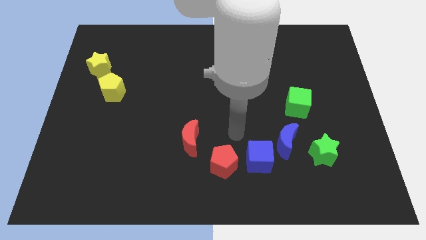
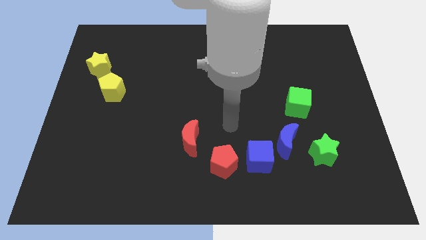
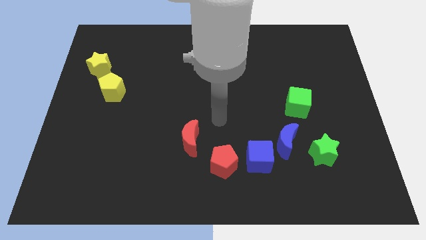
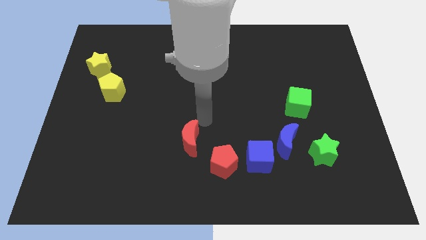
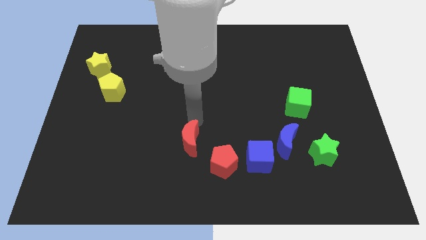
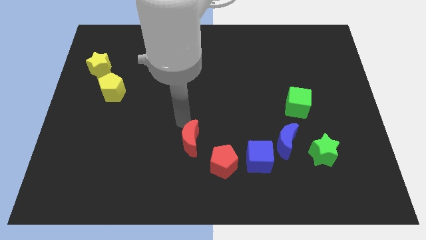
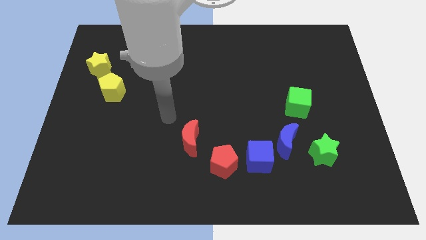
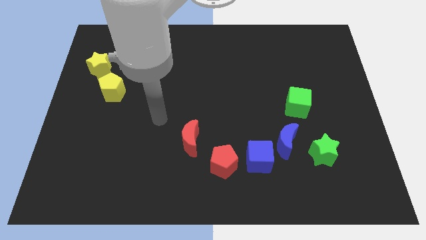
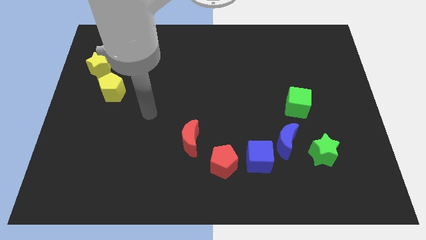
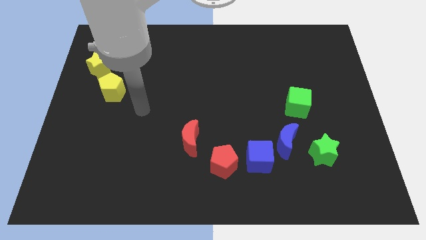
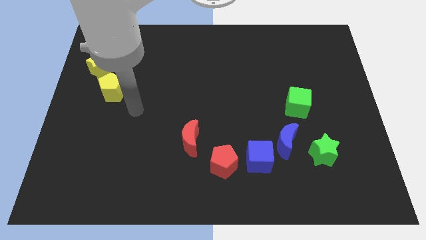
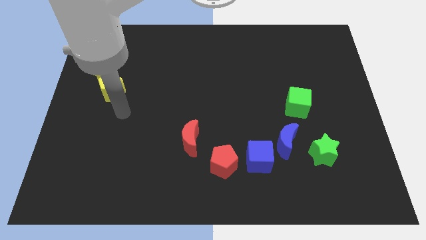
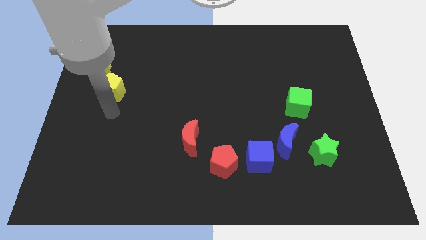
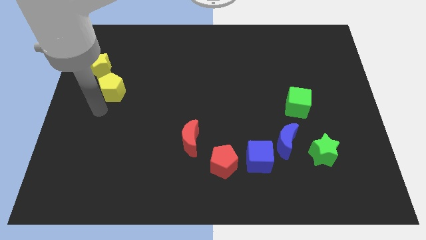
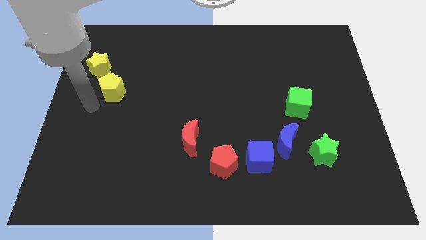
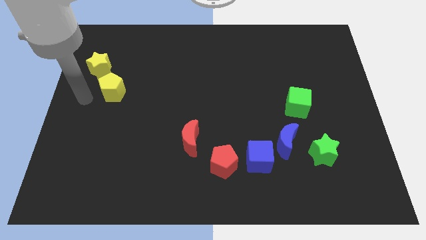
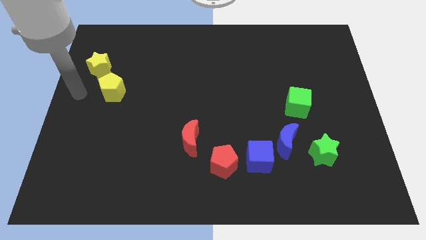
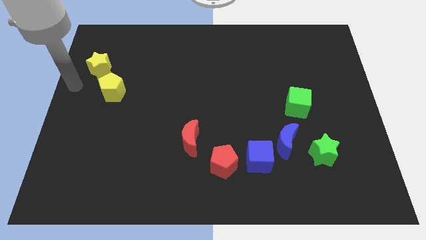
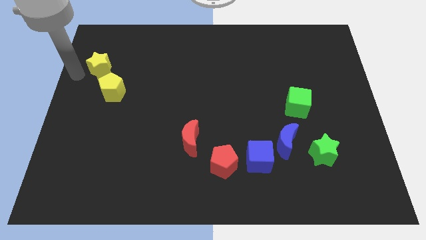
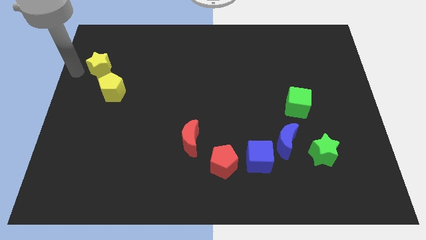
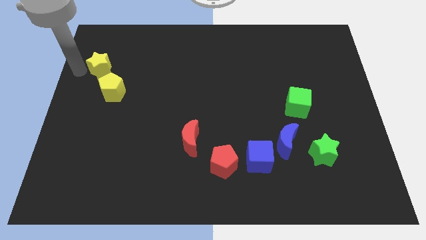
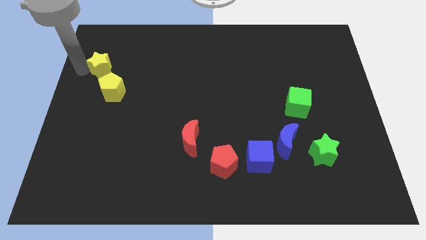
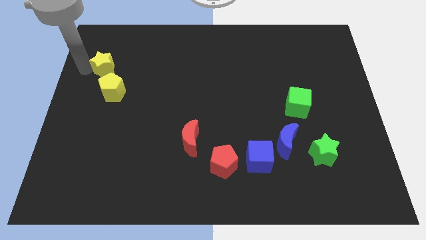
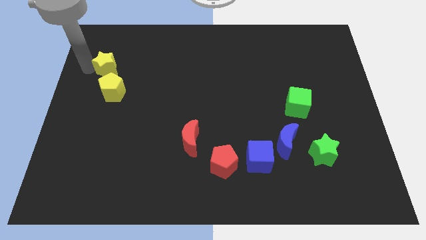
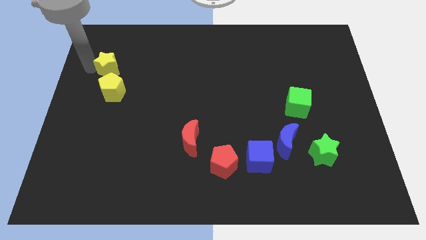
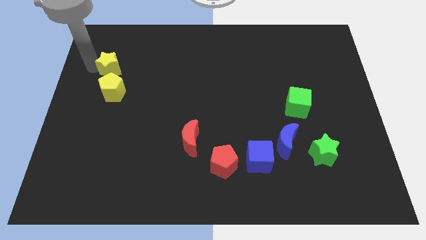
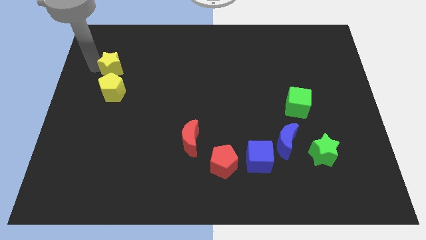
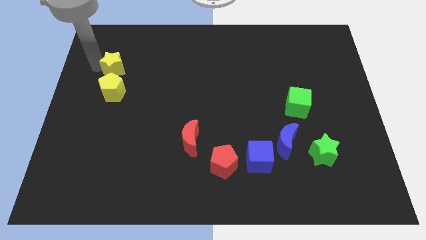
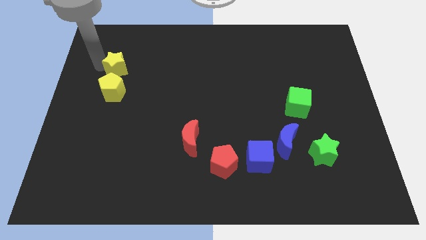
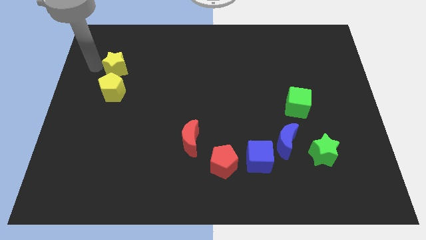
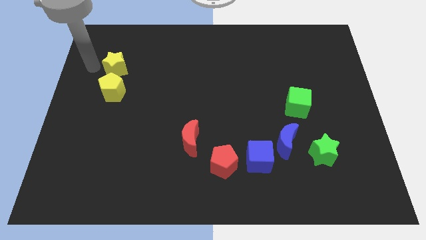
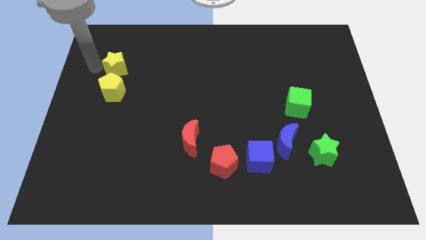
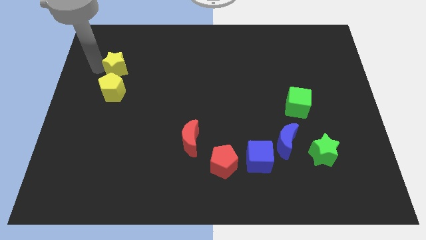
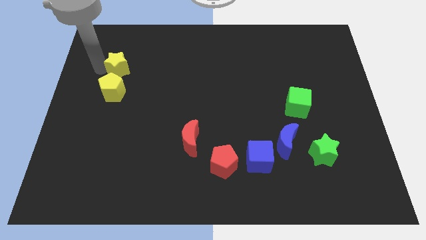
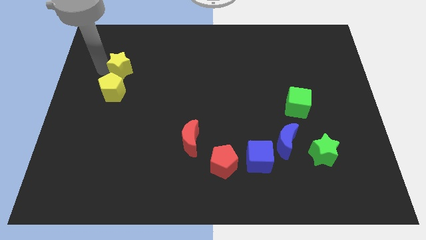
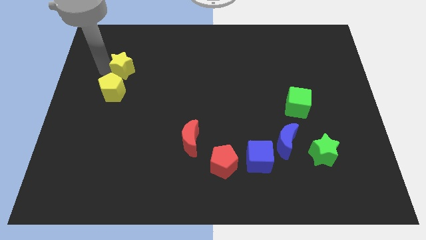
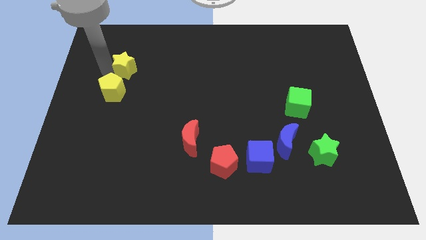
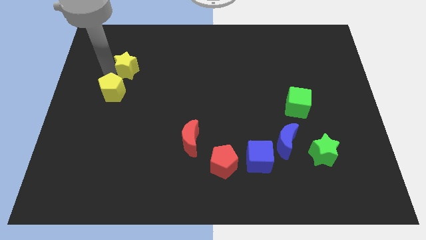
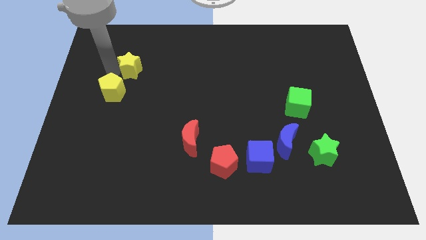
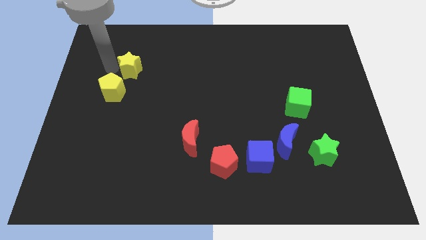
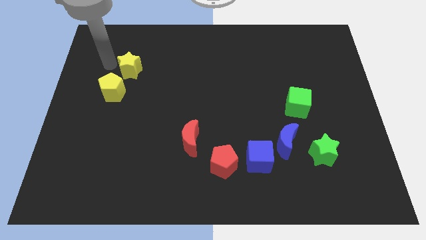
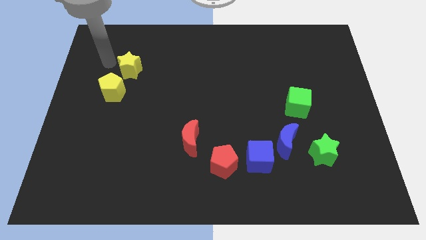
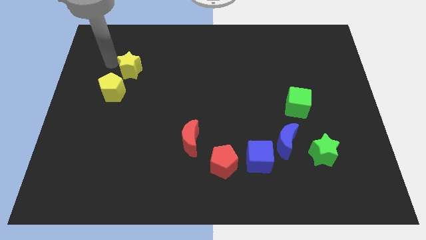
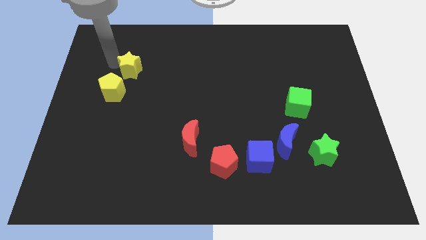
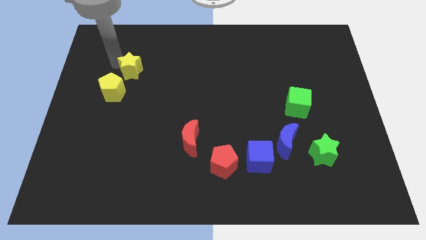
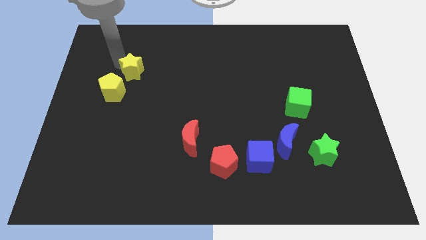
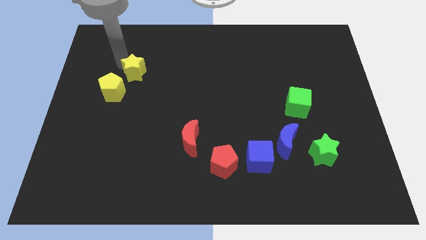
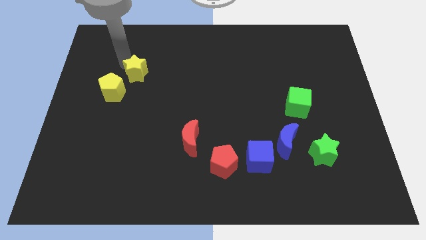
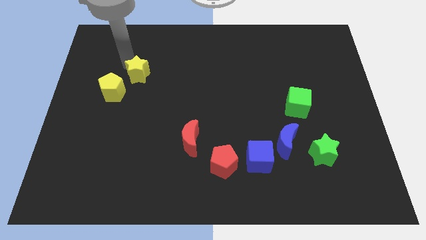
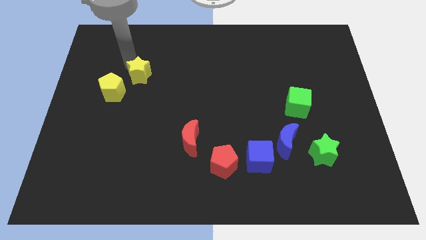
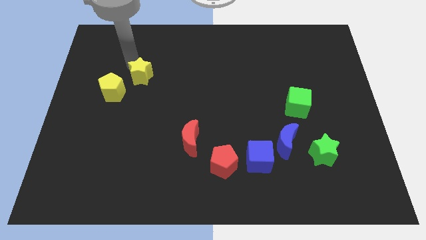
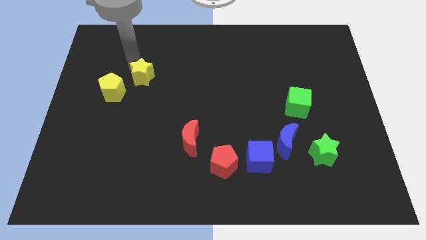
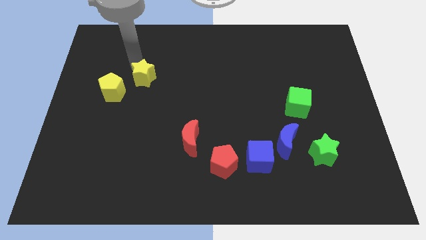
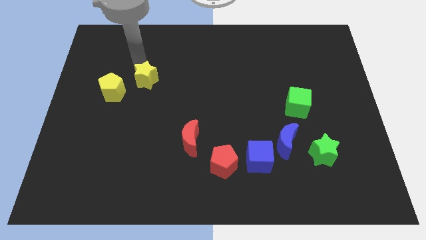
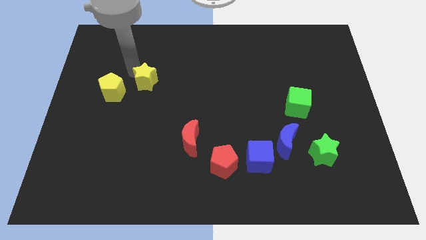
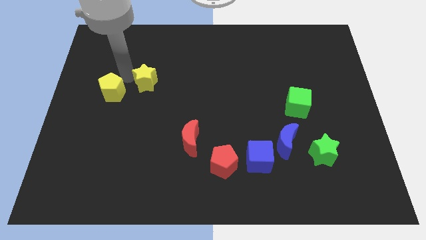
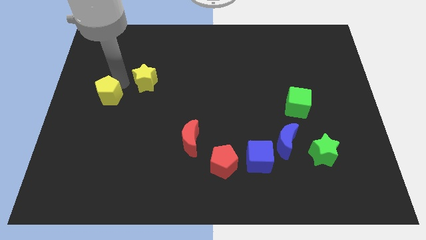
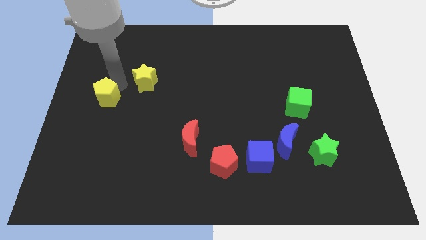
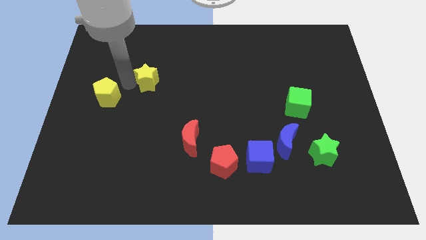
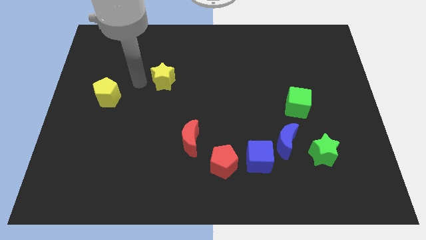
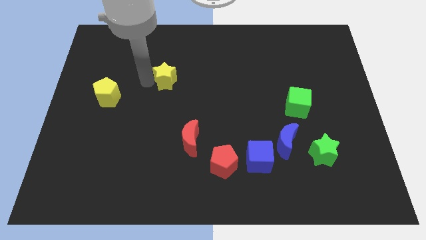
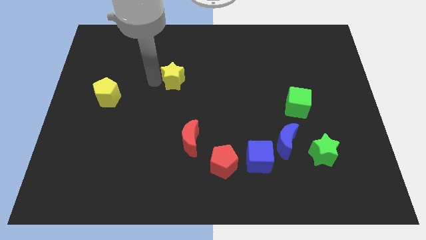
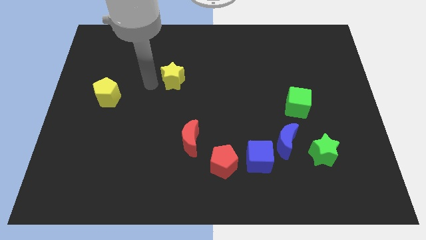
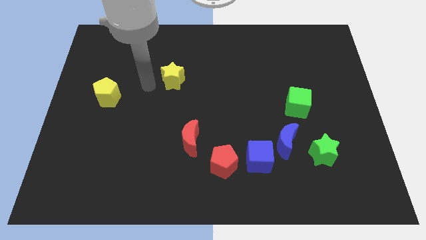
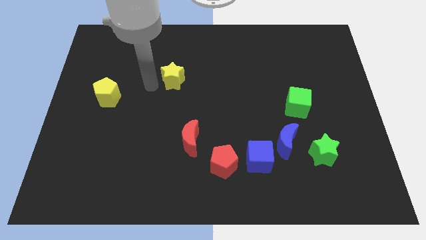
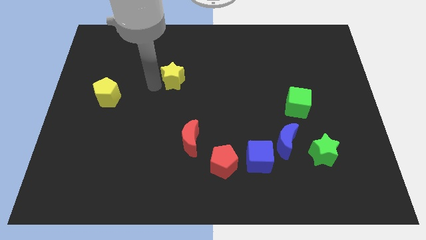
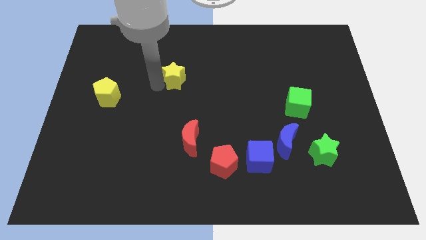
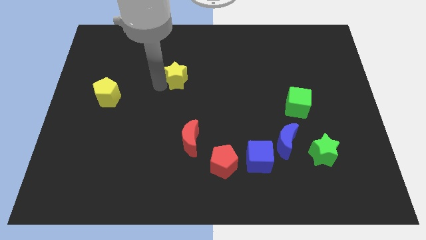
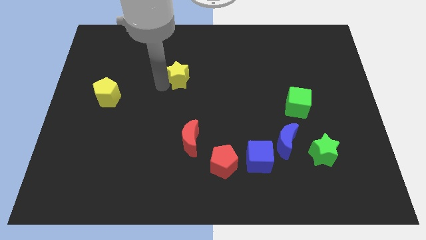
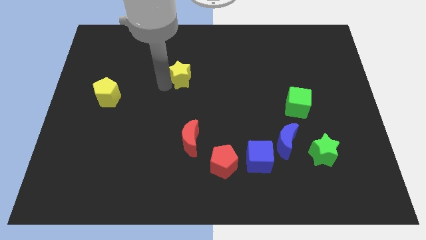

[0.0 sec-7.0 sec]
push the yellow star to the right

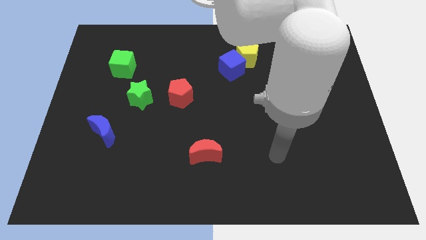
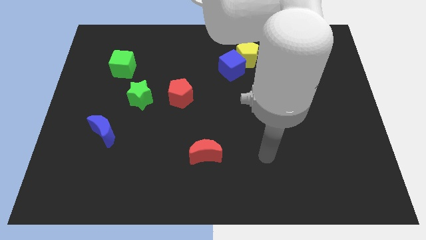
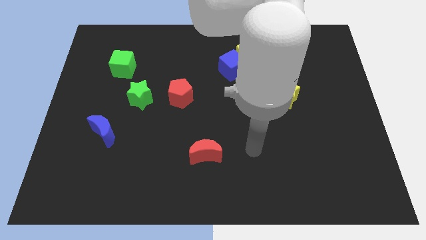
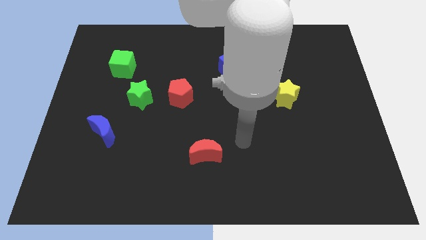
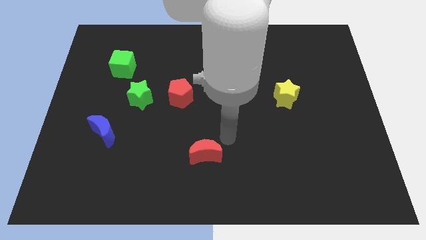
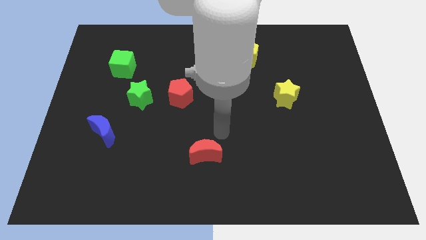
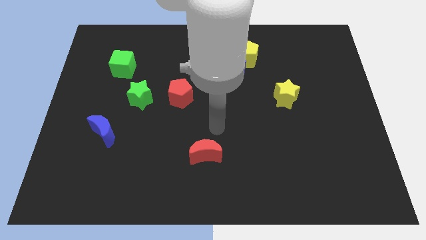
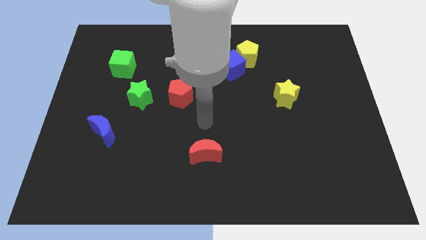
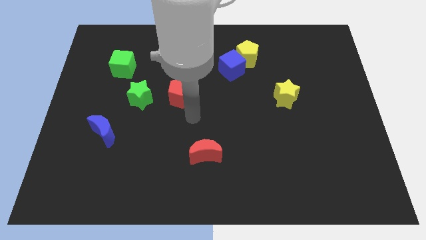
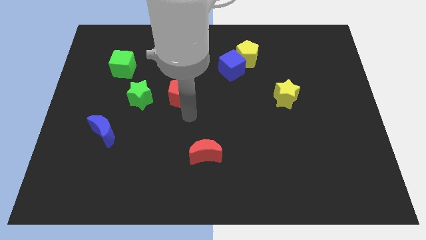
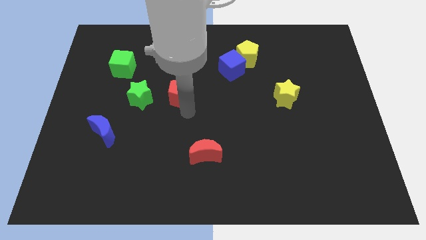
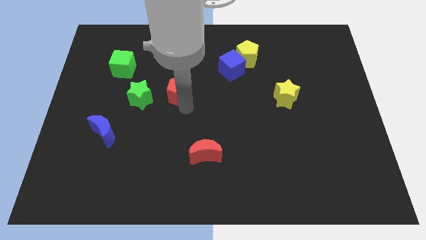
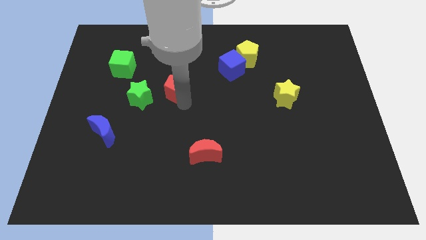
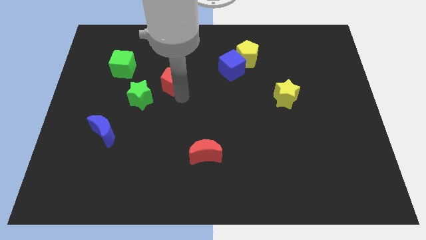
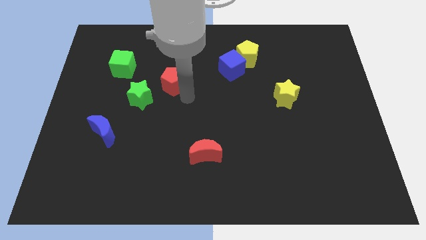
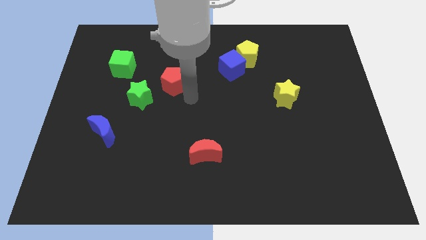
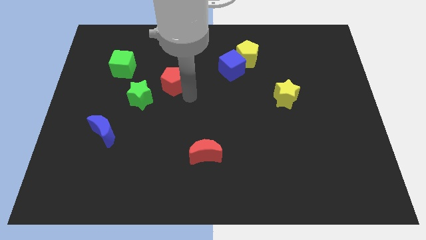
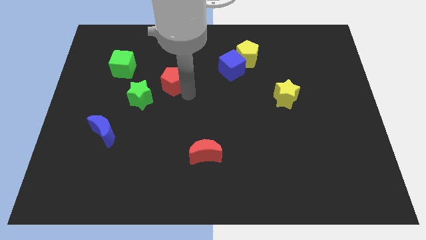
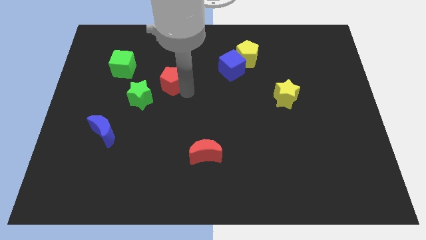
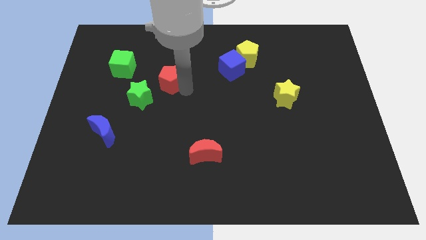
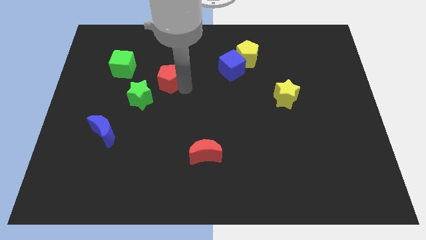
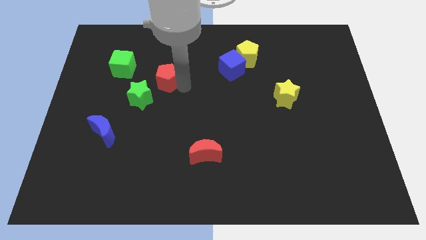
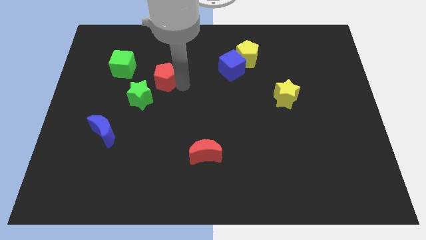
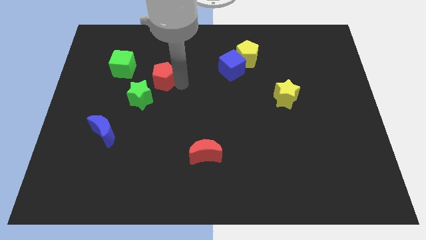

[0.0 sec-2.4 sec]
move the red pentagon up and to the left a little
